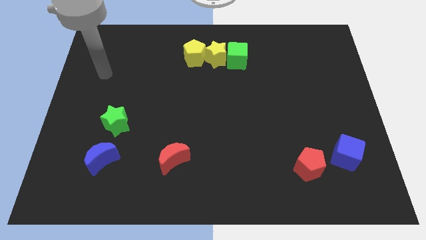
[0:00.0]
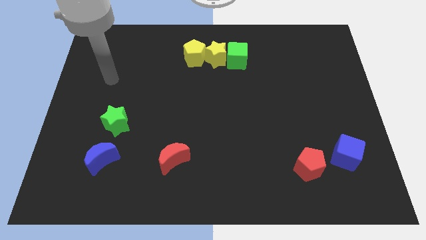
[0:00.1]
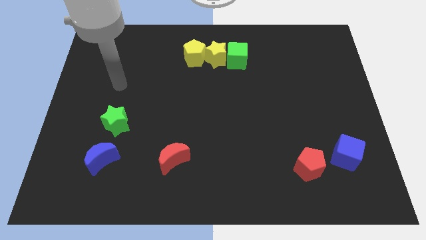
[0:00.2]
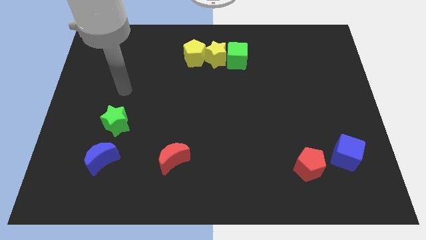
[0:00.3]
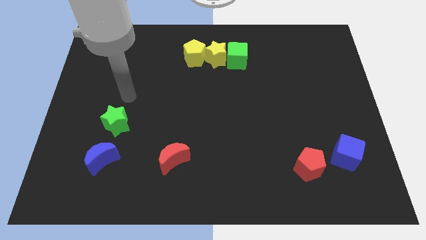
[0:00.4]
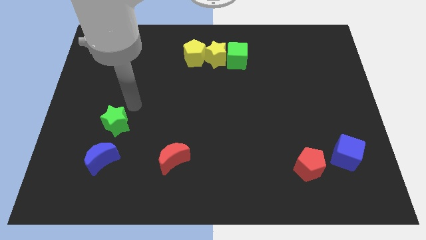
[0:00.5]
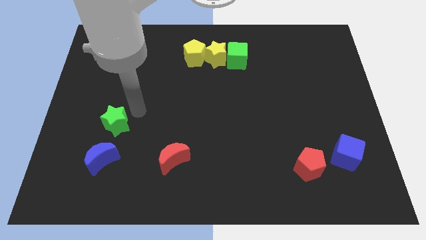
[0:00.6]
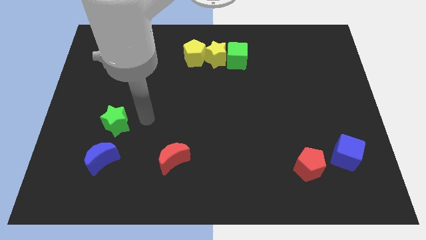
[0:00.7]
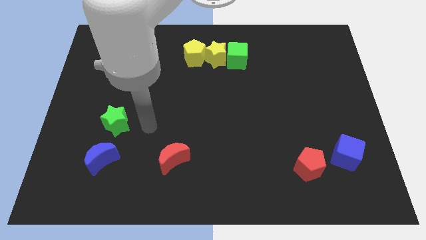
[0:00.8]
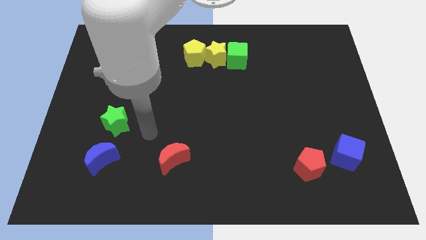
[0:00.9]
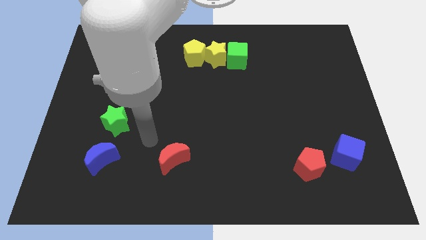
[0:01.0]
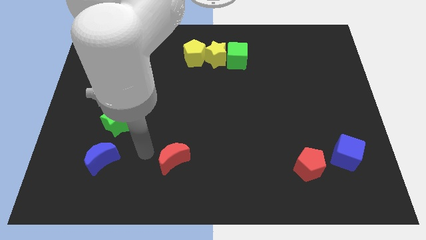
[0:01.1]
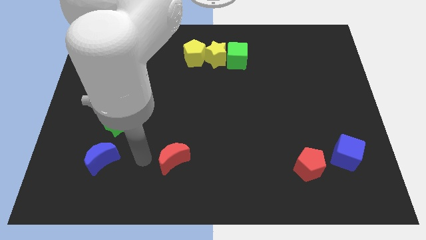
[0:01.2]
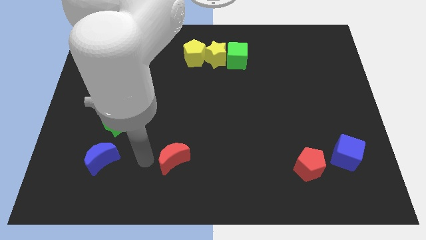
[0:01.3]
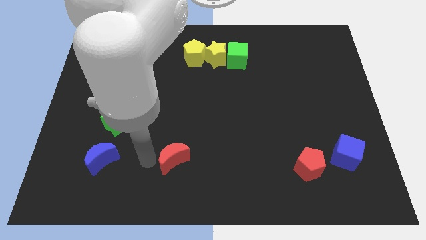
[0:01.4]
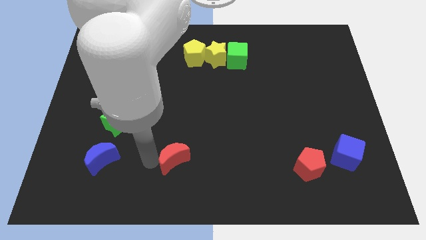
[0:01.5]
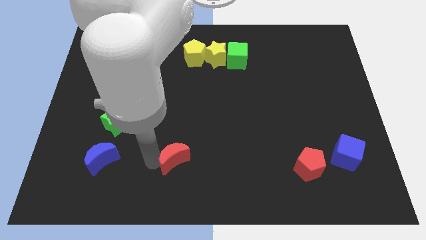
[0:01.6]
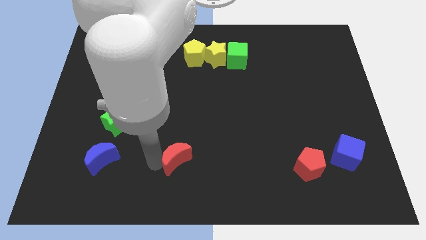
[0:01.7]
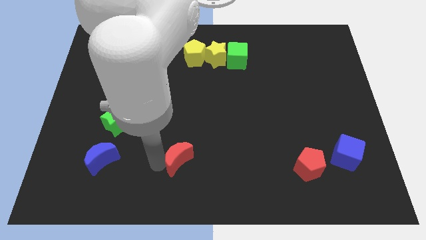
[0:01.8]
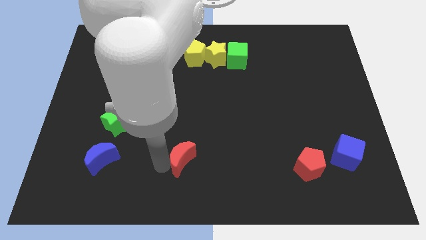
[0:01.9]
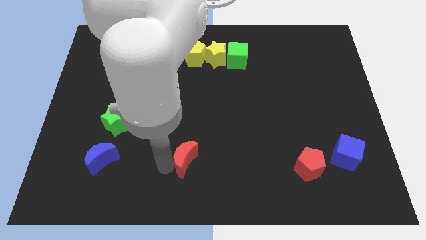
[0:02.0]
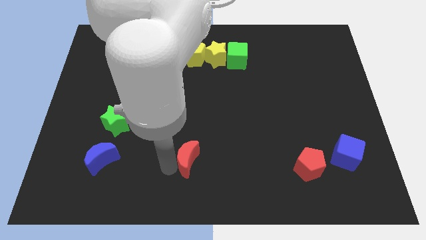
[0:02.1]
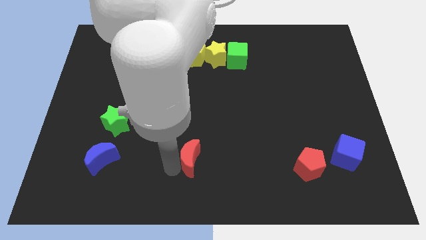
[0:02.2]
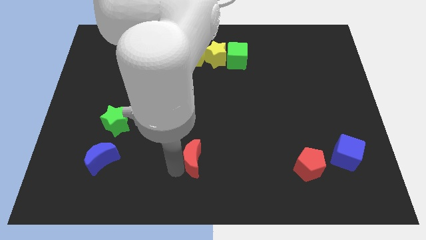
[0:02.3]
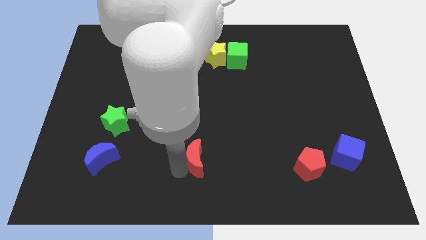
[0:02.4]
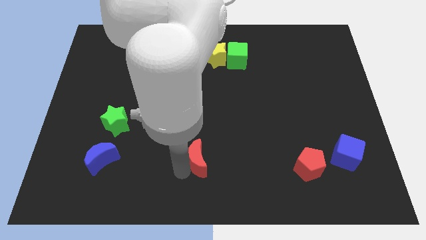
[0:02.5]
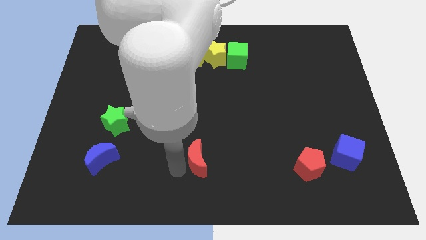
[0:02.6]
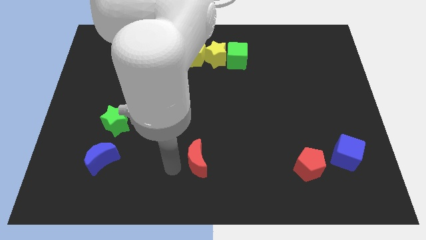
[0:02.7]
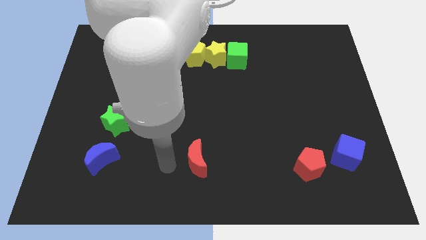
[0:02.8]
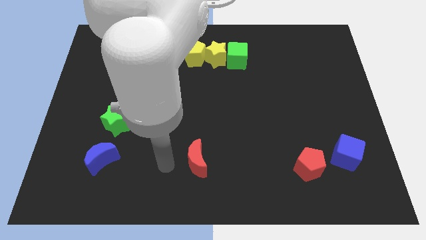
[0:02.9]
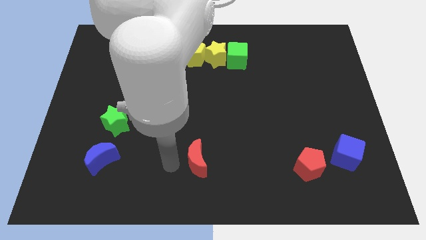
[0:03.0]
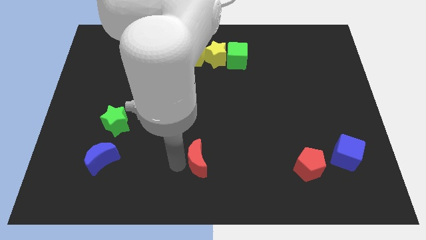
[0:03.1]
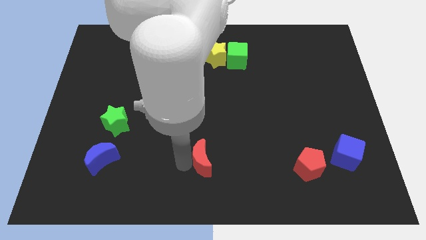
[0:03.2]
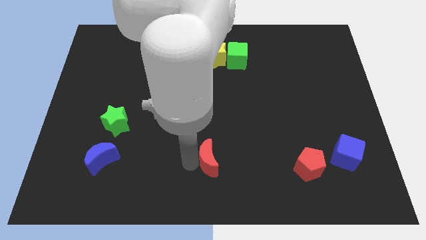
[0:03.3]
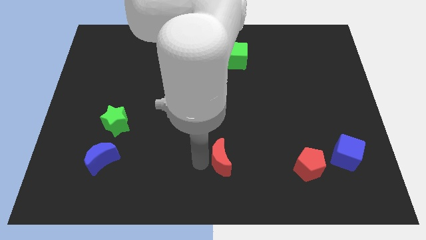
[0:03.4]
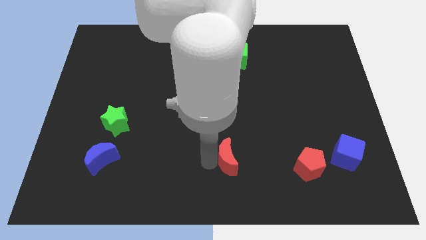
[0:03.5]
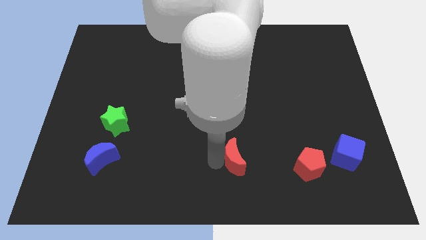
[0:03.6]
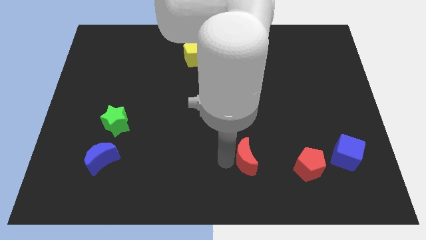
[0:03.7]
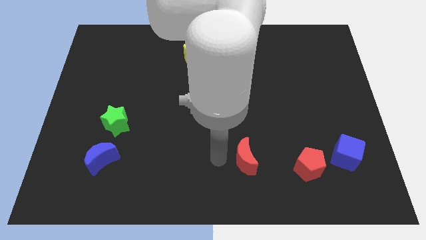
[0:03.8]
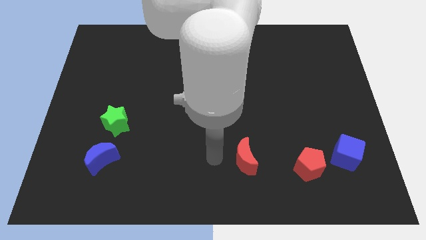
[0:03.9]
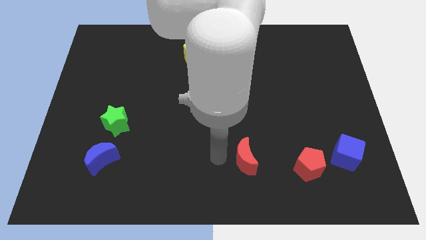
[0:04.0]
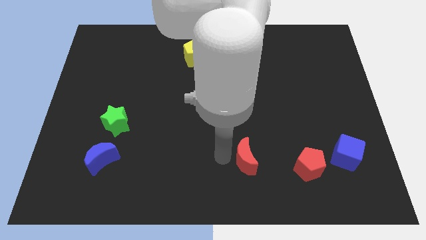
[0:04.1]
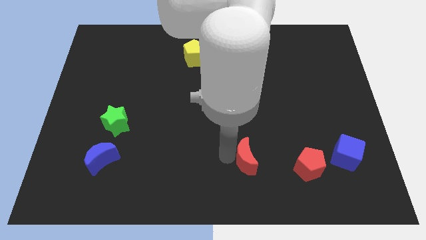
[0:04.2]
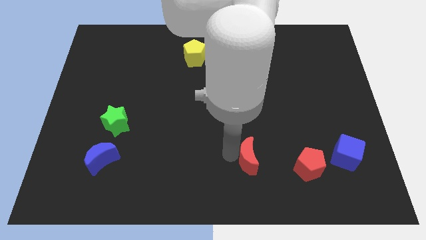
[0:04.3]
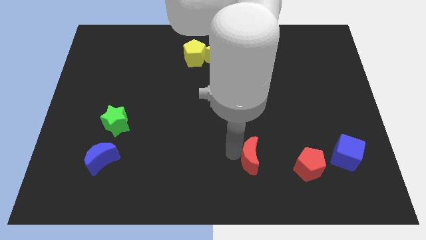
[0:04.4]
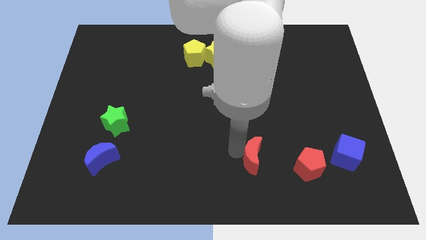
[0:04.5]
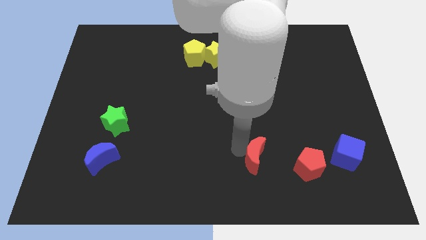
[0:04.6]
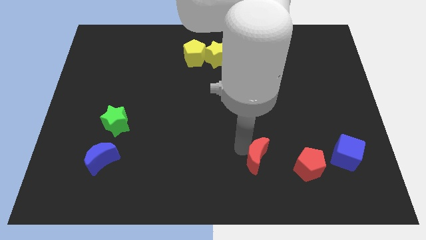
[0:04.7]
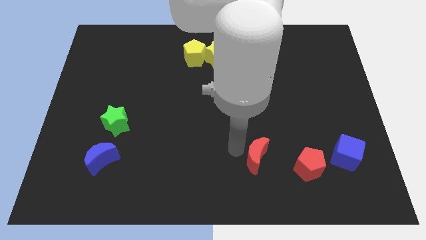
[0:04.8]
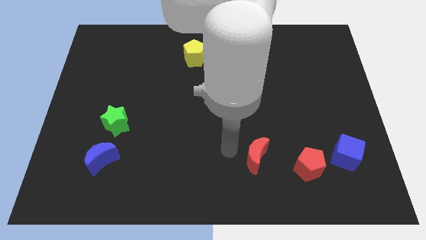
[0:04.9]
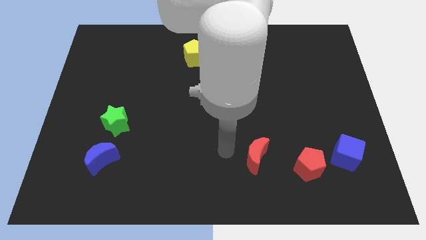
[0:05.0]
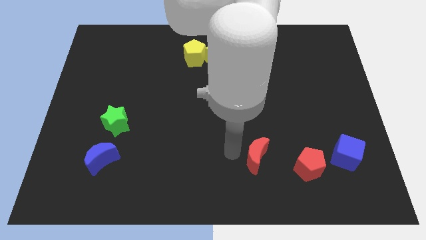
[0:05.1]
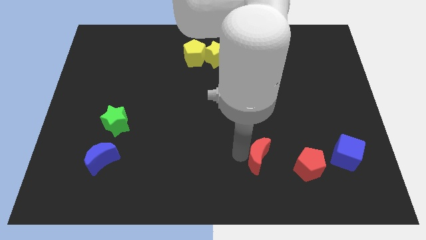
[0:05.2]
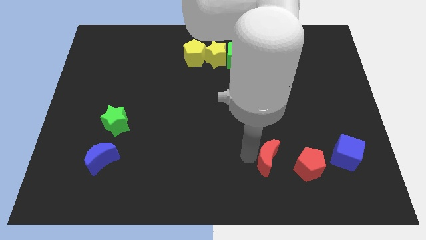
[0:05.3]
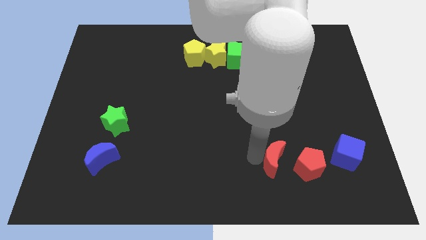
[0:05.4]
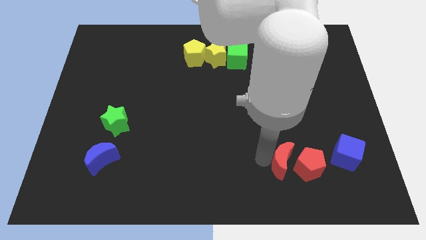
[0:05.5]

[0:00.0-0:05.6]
put the red moon towards the red pentagon
